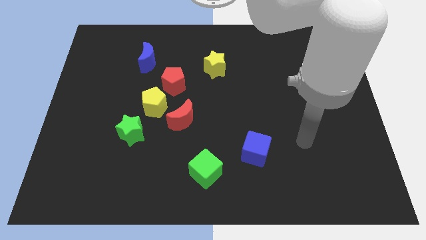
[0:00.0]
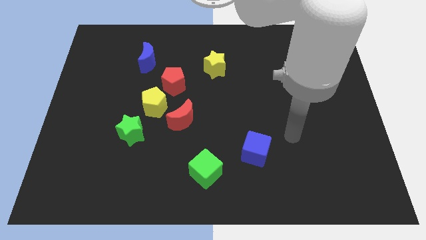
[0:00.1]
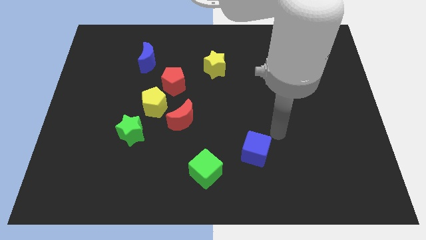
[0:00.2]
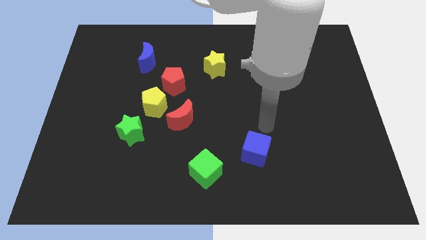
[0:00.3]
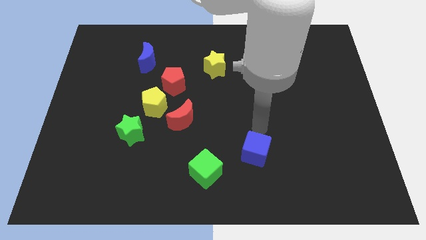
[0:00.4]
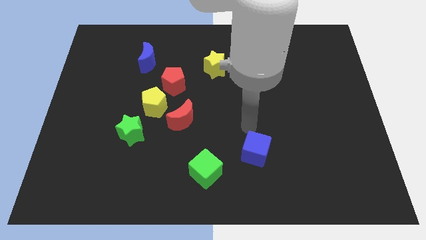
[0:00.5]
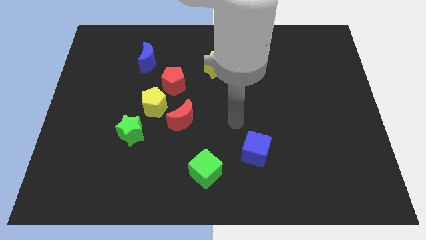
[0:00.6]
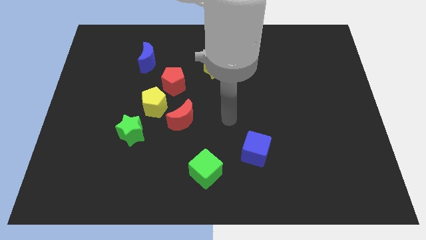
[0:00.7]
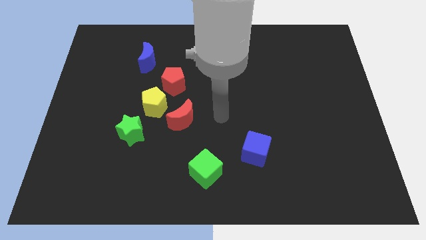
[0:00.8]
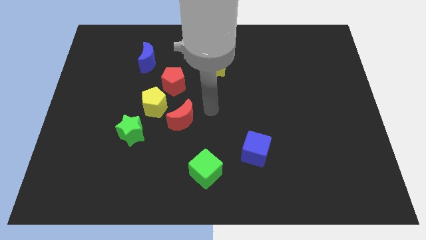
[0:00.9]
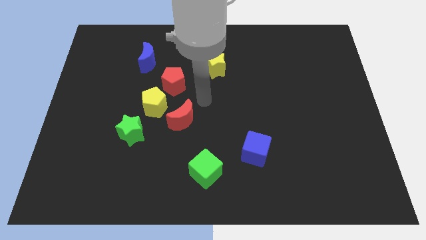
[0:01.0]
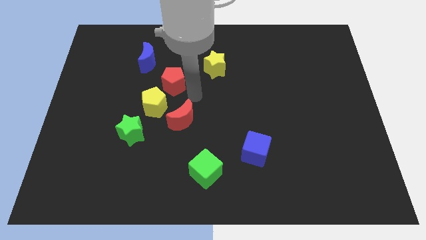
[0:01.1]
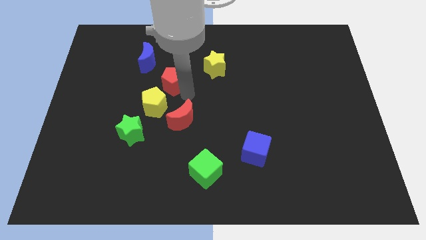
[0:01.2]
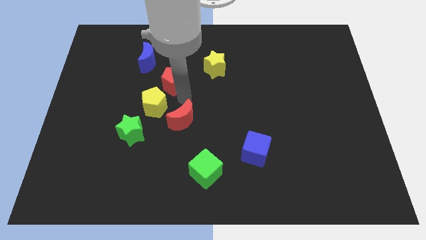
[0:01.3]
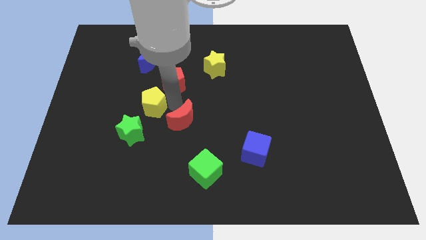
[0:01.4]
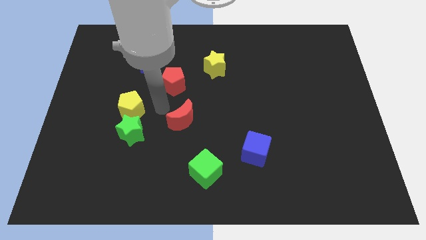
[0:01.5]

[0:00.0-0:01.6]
separate the red moon from the yellow pentagon

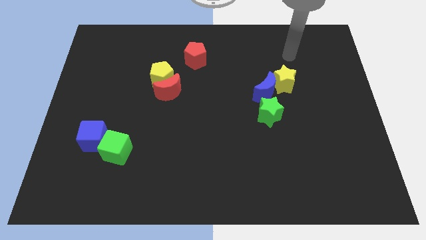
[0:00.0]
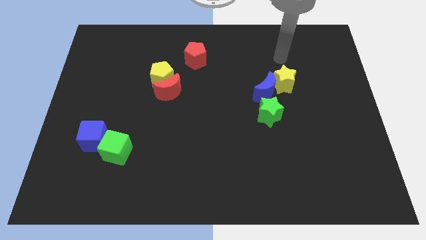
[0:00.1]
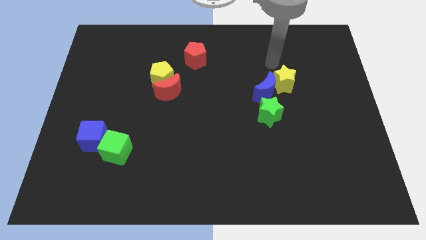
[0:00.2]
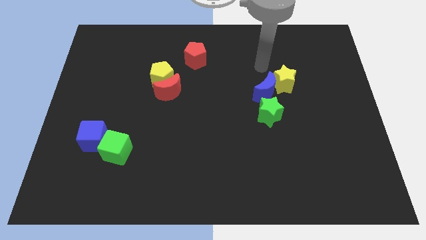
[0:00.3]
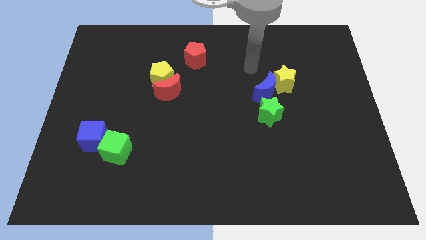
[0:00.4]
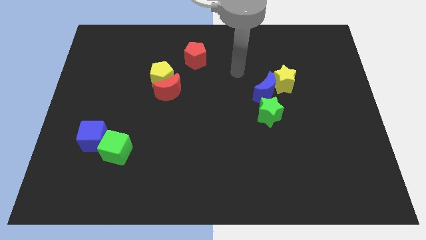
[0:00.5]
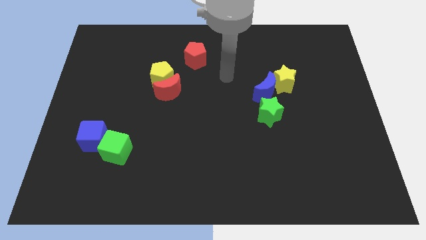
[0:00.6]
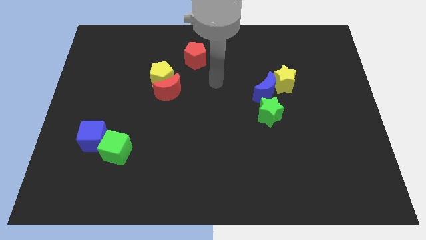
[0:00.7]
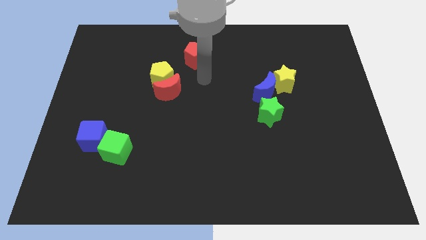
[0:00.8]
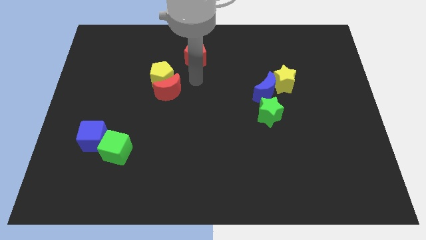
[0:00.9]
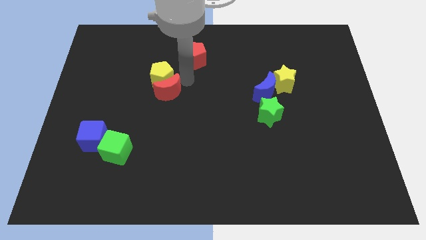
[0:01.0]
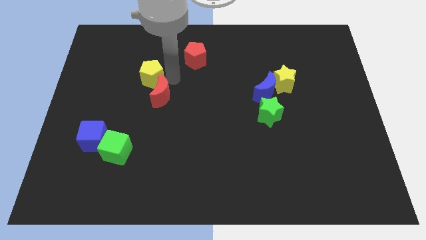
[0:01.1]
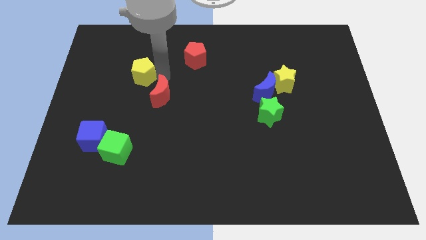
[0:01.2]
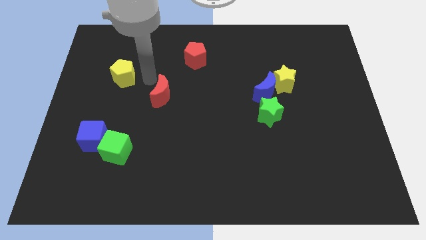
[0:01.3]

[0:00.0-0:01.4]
move the red moon away from the yellow pentagon

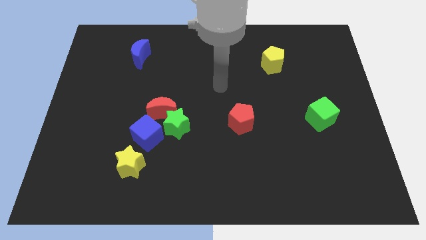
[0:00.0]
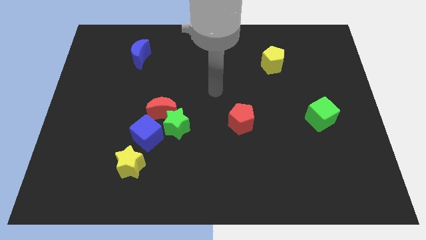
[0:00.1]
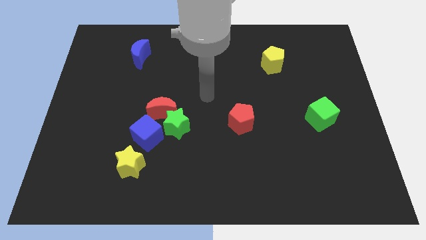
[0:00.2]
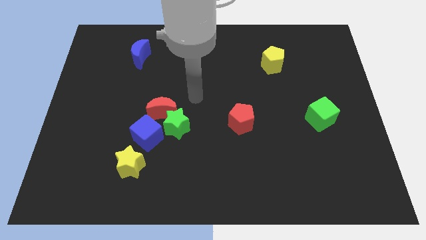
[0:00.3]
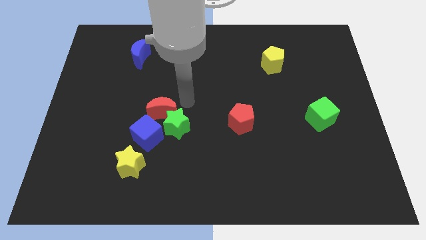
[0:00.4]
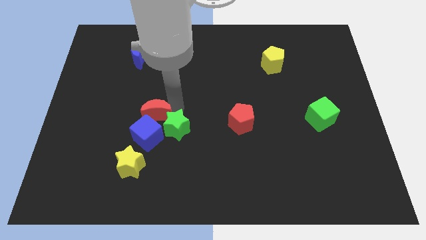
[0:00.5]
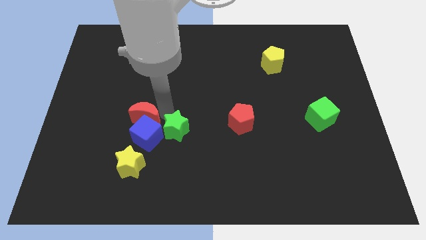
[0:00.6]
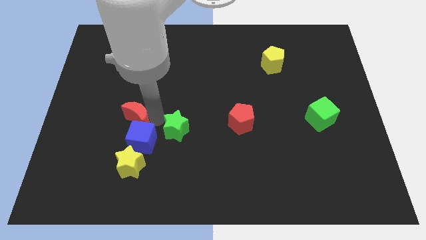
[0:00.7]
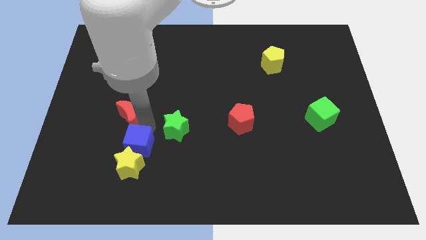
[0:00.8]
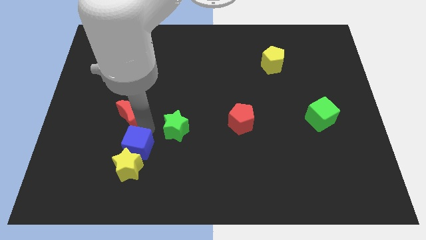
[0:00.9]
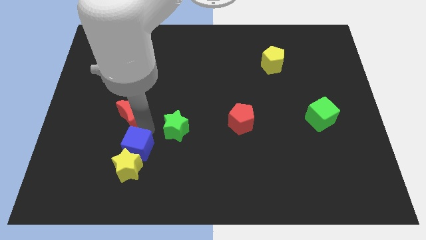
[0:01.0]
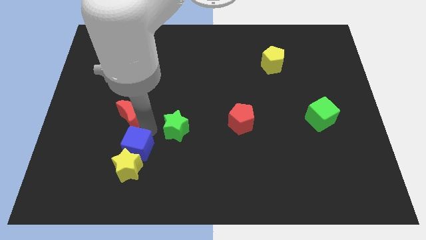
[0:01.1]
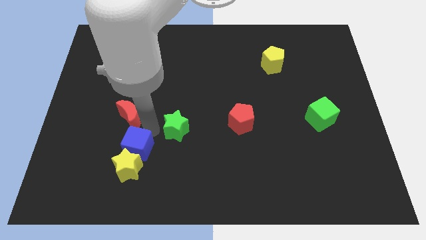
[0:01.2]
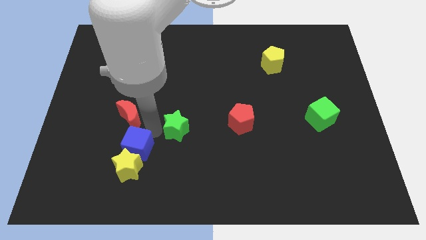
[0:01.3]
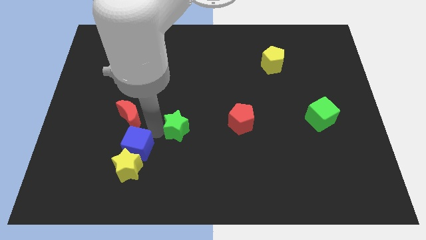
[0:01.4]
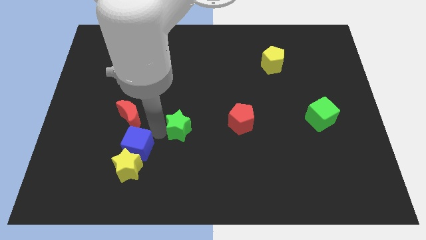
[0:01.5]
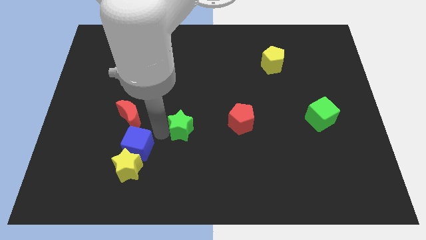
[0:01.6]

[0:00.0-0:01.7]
move the green star away from the red moon and blue cube

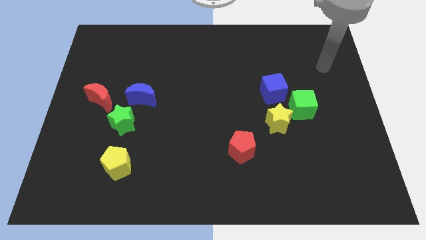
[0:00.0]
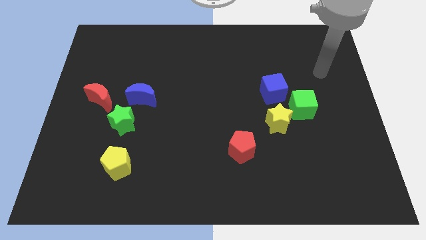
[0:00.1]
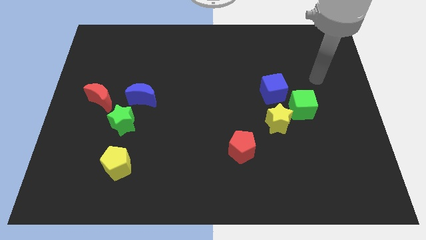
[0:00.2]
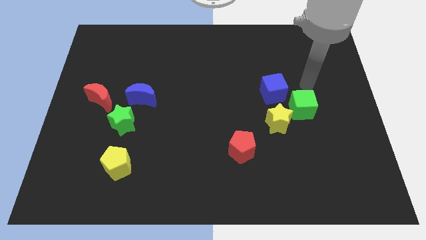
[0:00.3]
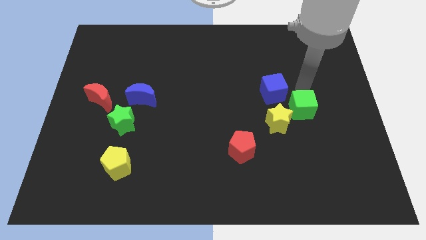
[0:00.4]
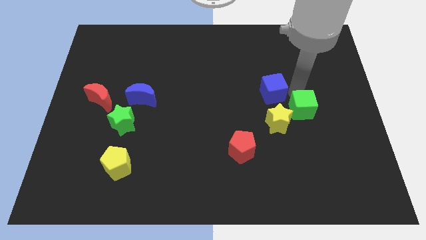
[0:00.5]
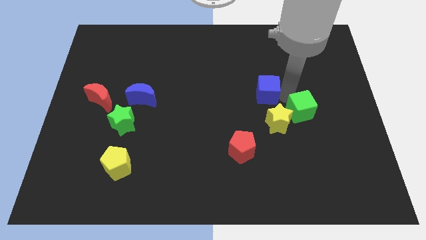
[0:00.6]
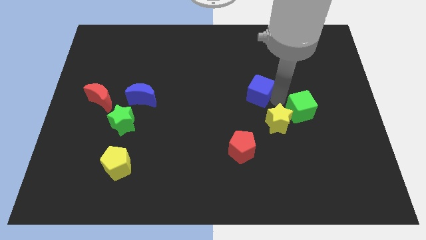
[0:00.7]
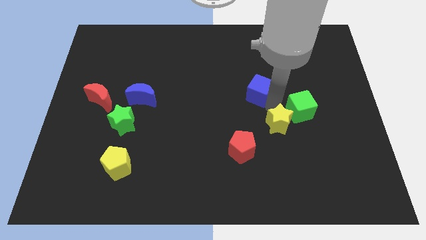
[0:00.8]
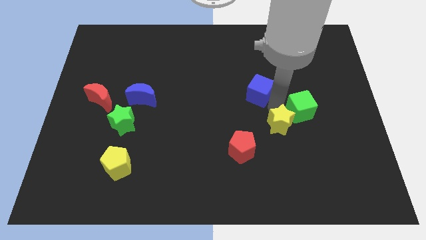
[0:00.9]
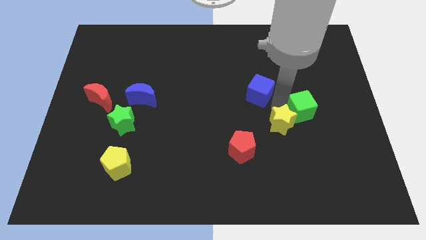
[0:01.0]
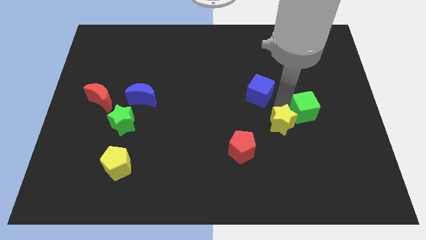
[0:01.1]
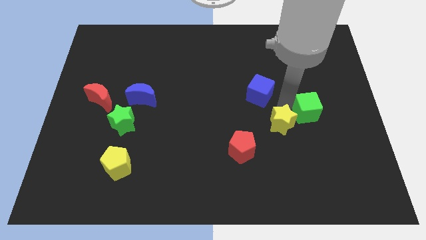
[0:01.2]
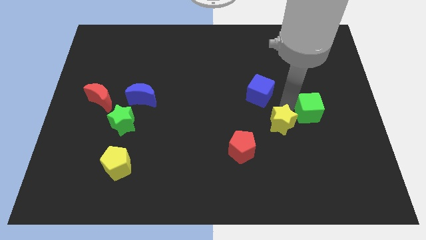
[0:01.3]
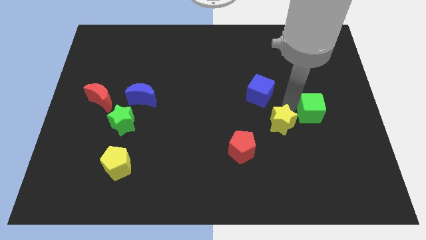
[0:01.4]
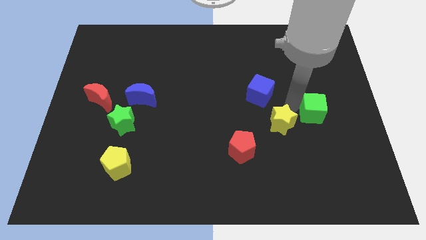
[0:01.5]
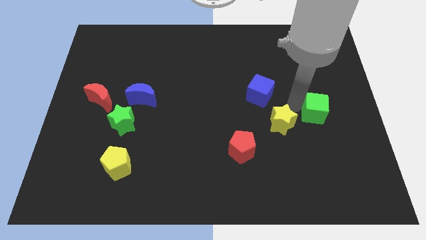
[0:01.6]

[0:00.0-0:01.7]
move the green cube away from the yellow star and blue cube

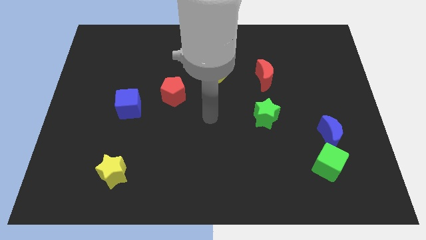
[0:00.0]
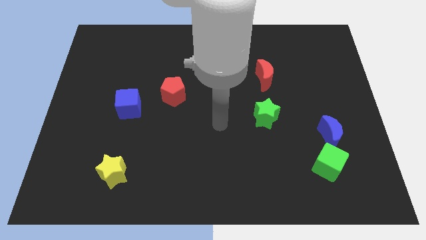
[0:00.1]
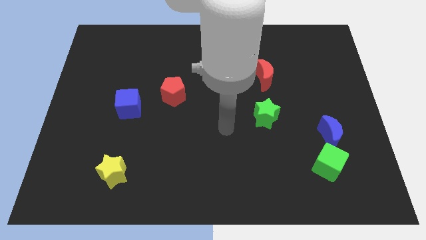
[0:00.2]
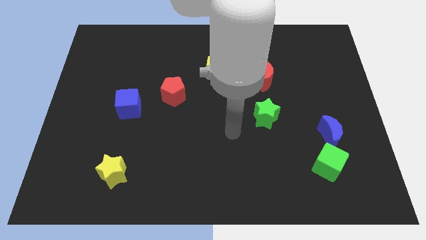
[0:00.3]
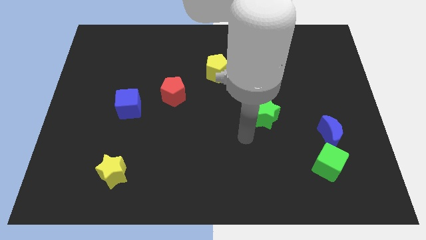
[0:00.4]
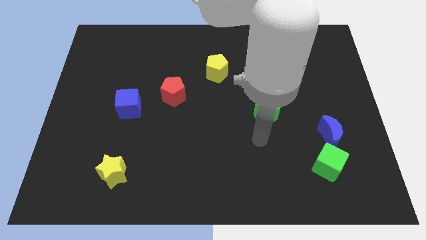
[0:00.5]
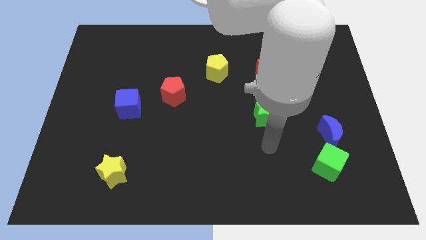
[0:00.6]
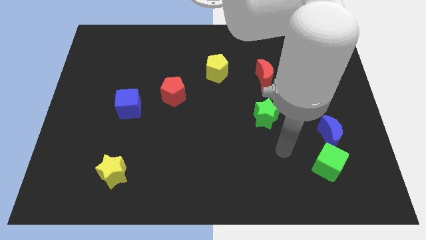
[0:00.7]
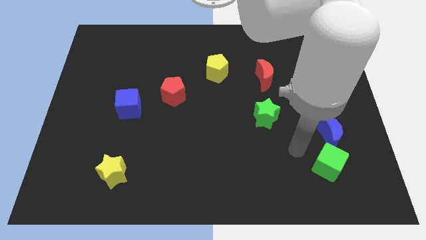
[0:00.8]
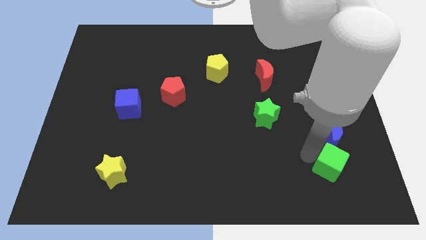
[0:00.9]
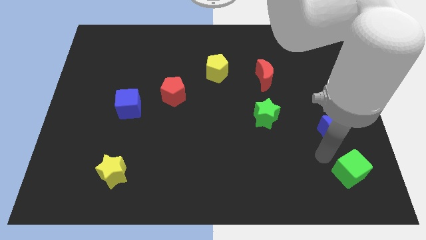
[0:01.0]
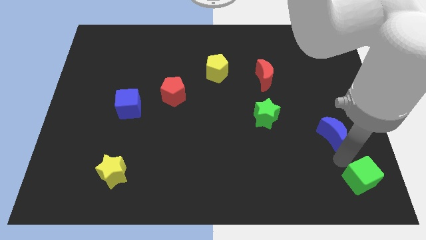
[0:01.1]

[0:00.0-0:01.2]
pull the blue moon apart from the green cube

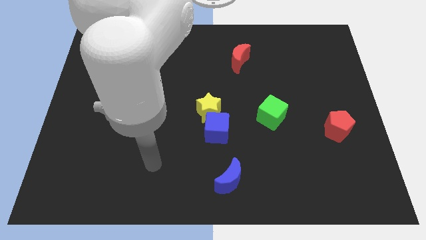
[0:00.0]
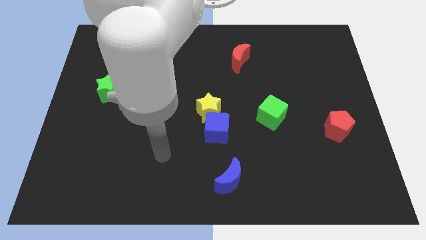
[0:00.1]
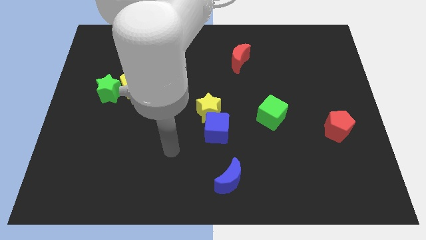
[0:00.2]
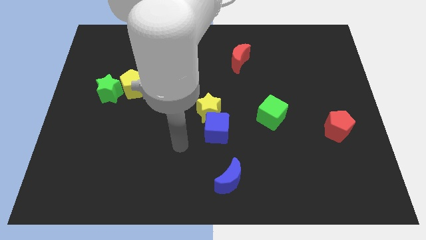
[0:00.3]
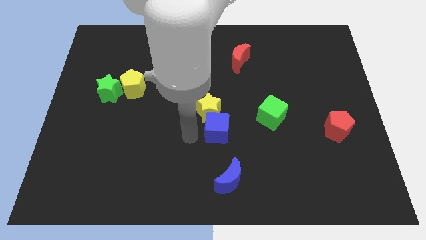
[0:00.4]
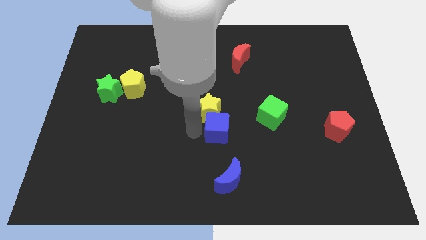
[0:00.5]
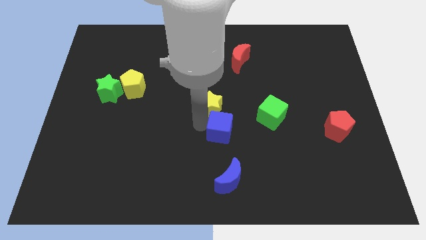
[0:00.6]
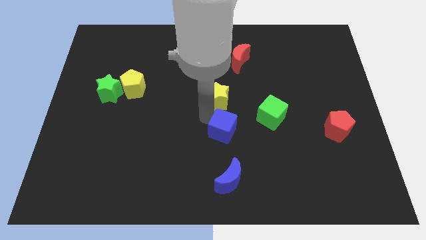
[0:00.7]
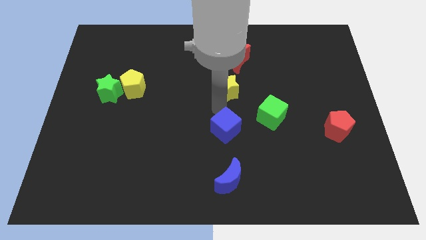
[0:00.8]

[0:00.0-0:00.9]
move the blue cube away from the yellow star

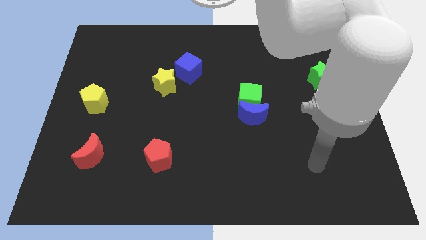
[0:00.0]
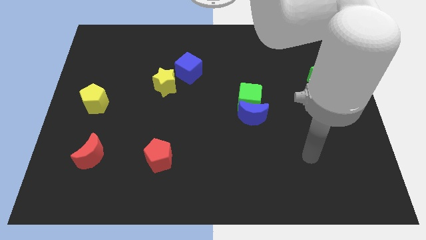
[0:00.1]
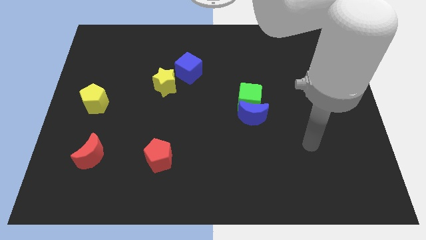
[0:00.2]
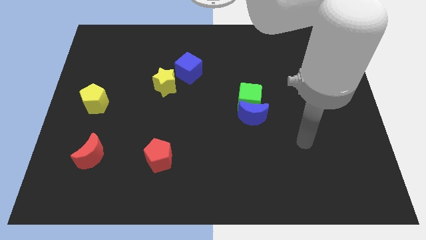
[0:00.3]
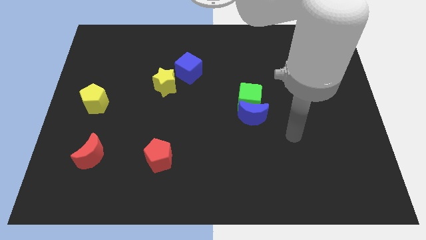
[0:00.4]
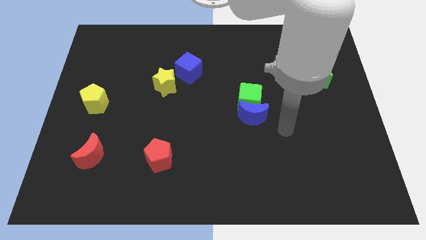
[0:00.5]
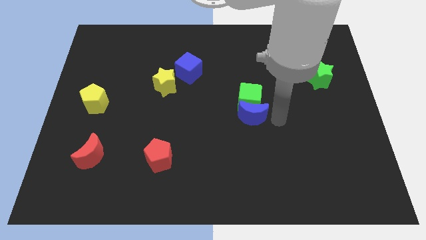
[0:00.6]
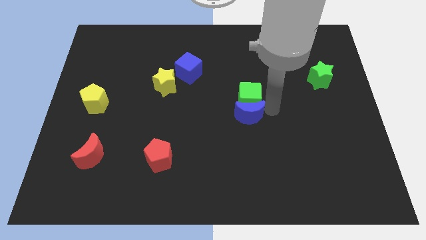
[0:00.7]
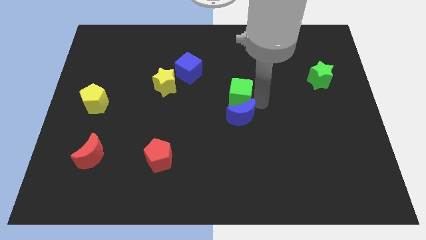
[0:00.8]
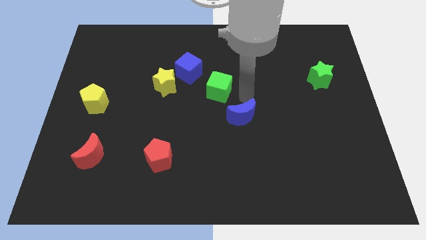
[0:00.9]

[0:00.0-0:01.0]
separate the blue moon from the green cube
